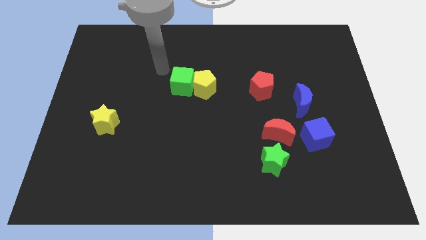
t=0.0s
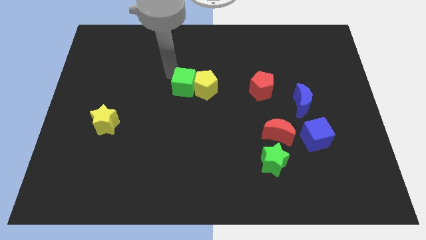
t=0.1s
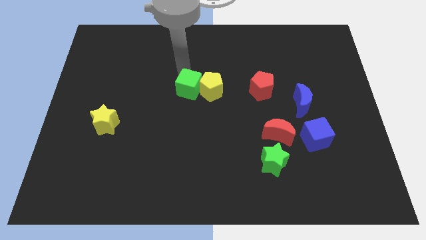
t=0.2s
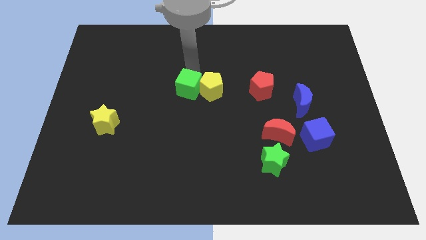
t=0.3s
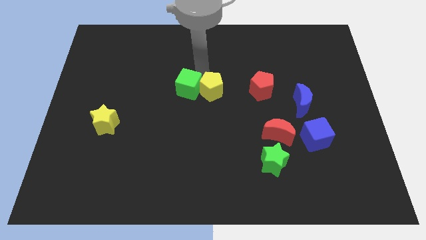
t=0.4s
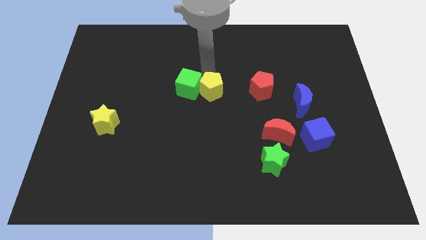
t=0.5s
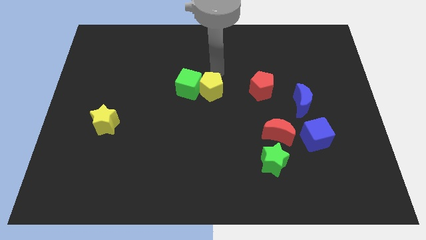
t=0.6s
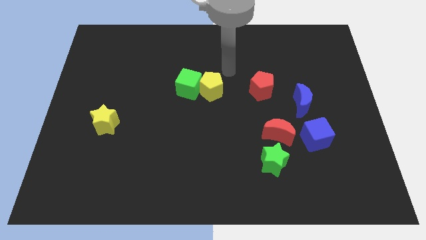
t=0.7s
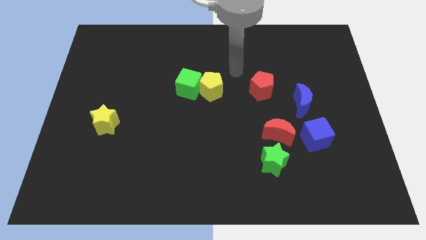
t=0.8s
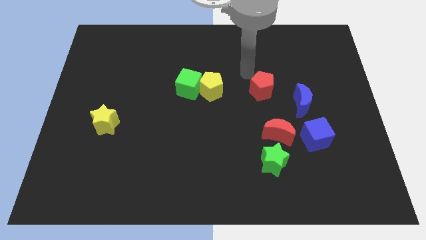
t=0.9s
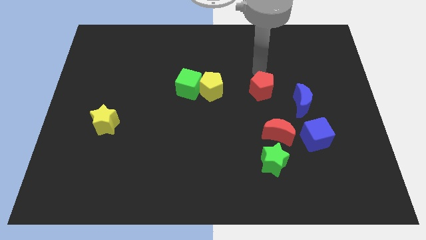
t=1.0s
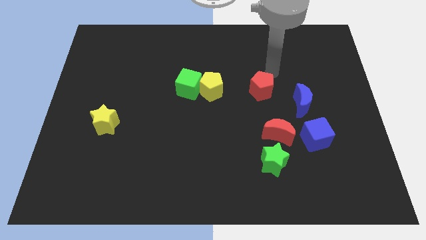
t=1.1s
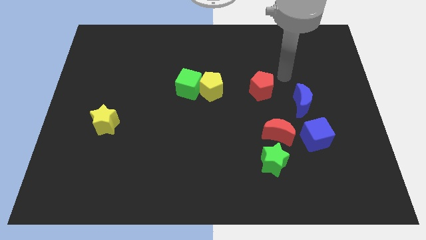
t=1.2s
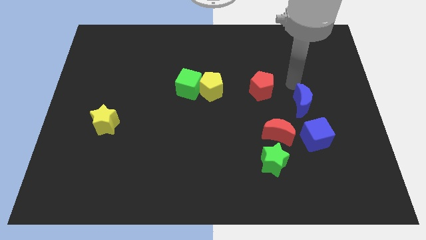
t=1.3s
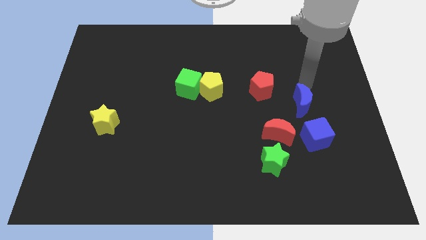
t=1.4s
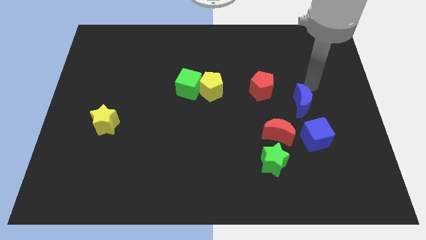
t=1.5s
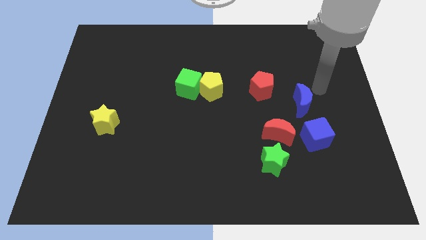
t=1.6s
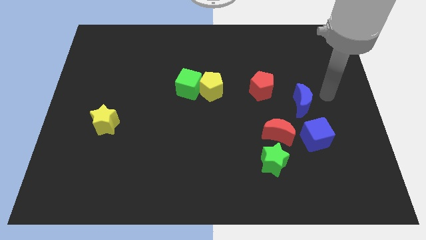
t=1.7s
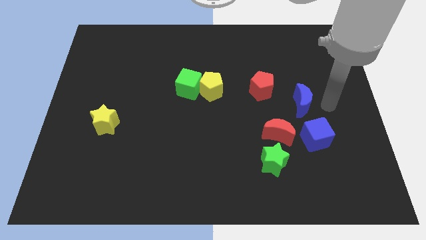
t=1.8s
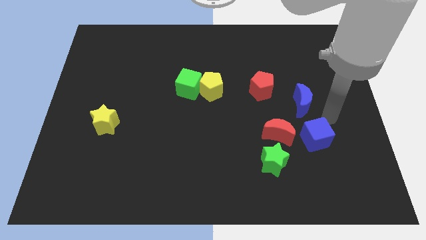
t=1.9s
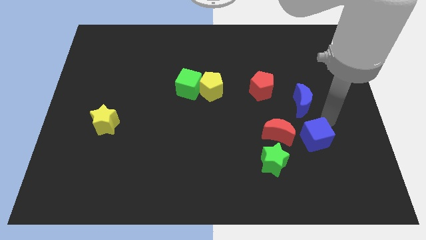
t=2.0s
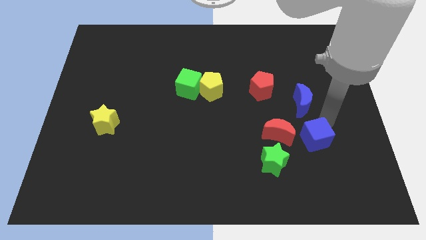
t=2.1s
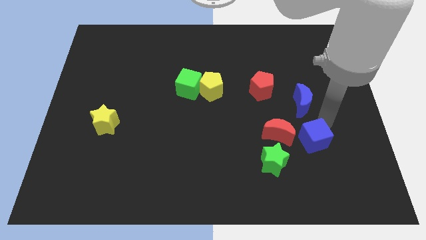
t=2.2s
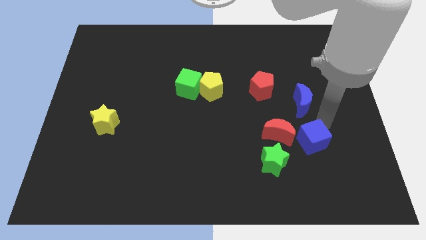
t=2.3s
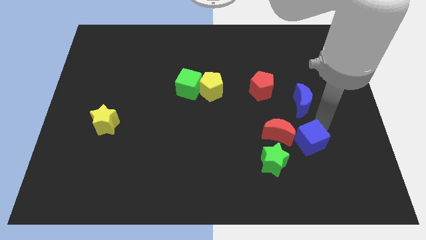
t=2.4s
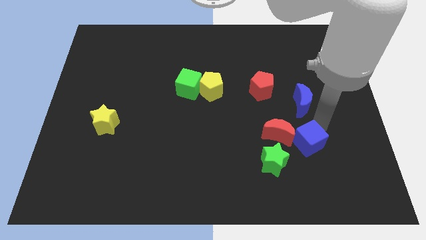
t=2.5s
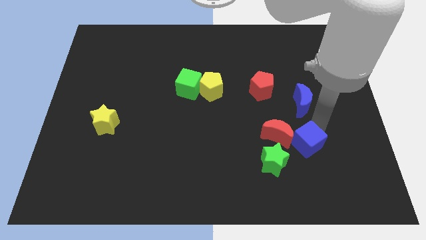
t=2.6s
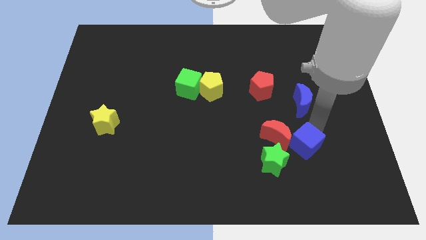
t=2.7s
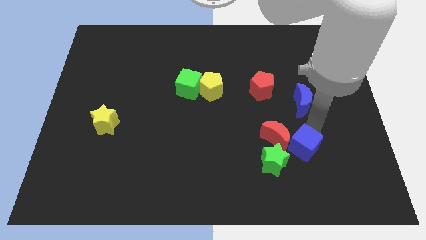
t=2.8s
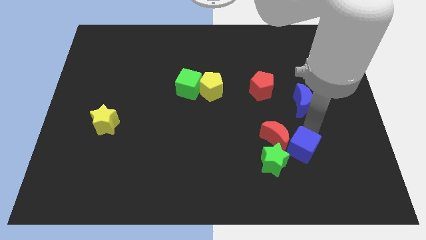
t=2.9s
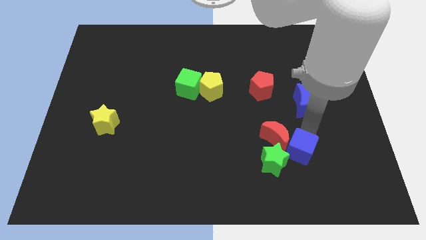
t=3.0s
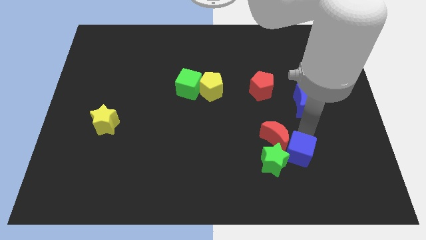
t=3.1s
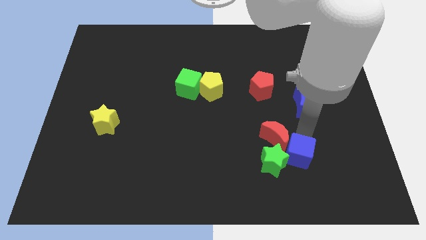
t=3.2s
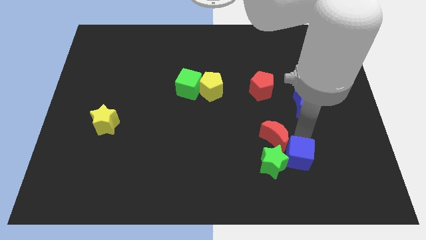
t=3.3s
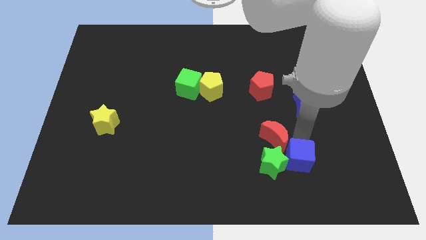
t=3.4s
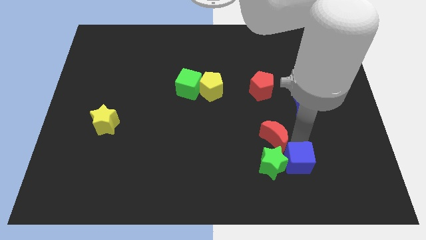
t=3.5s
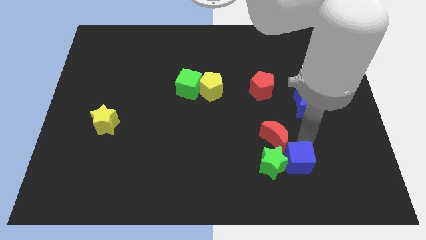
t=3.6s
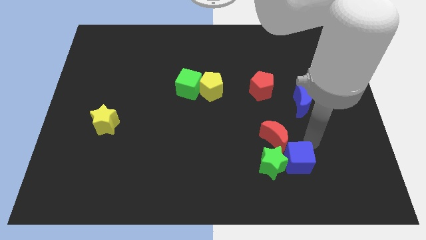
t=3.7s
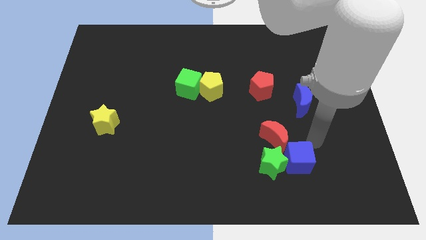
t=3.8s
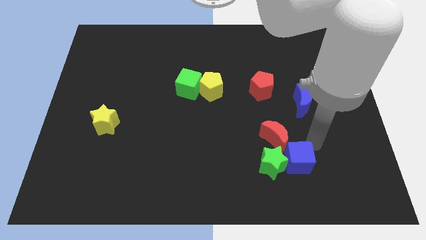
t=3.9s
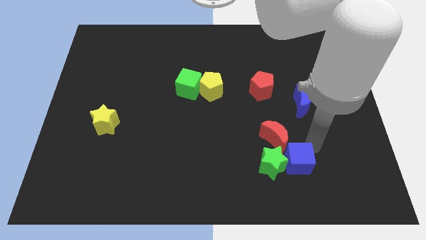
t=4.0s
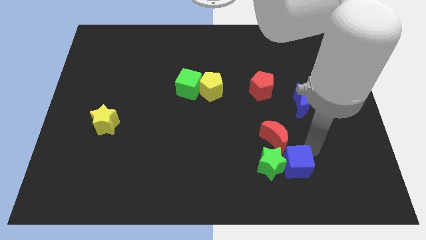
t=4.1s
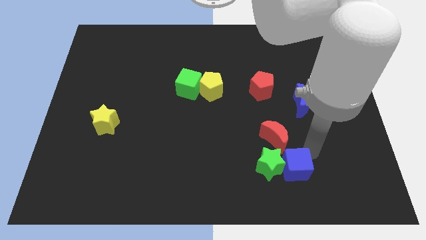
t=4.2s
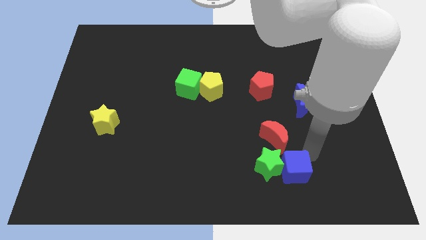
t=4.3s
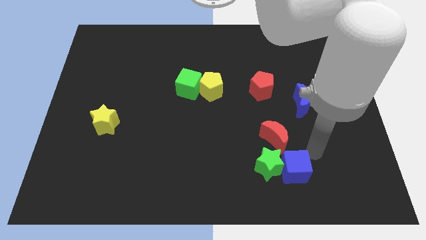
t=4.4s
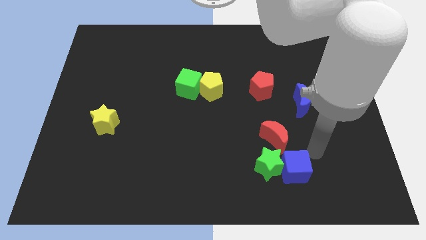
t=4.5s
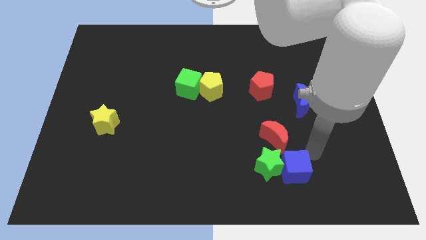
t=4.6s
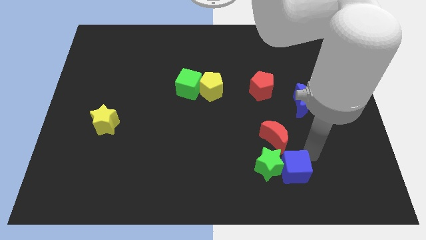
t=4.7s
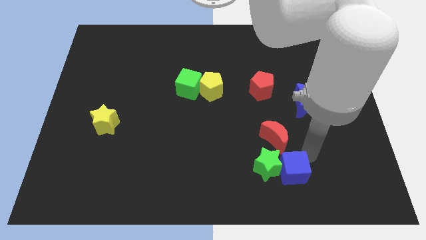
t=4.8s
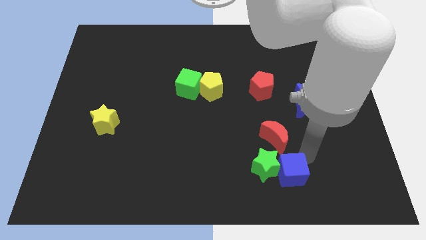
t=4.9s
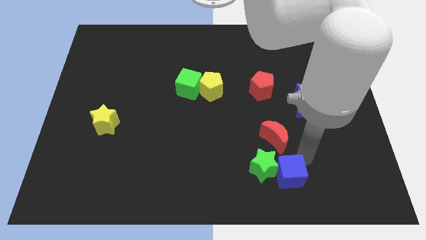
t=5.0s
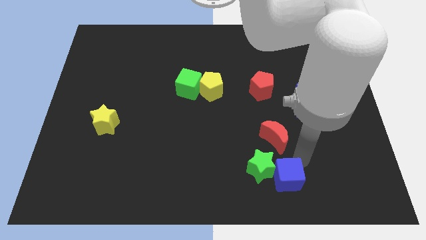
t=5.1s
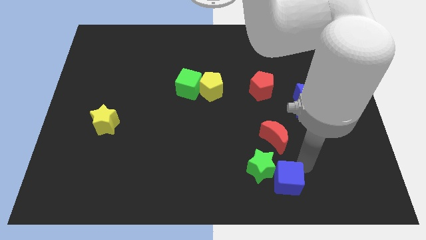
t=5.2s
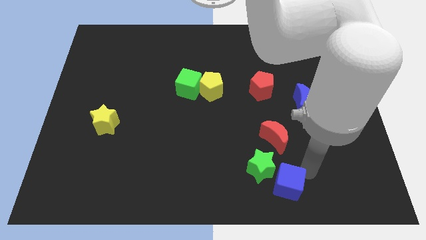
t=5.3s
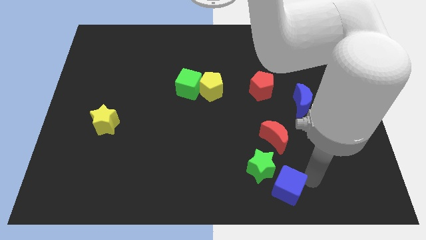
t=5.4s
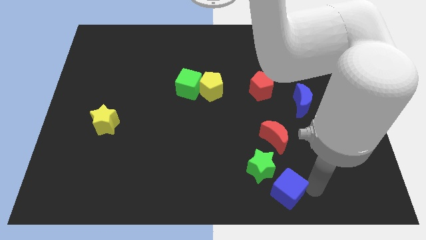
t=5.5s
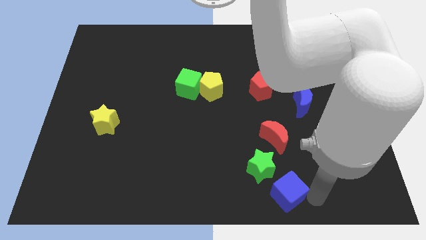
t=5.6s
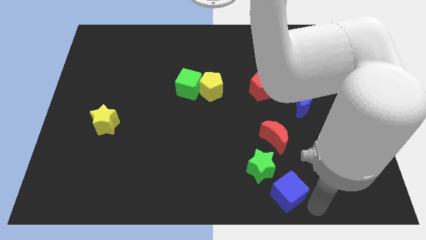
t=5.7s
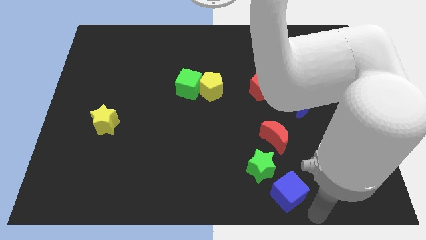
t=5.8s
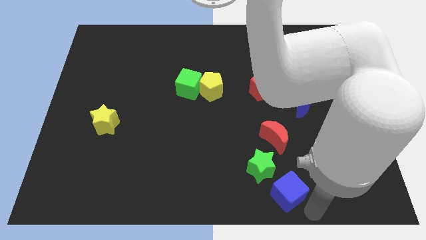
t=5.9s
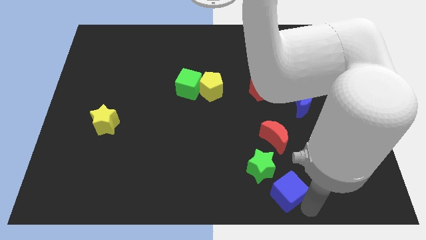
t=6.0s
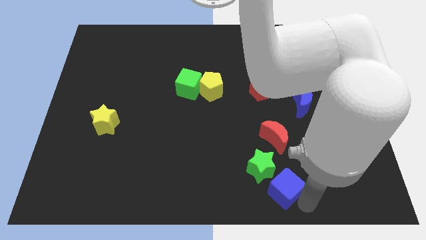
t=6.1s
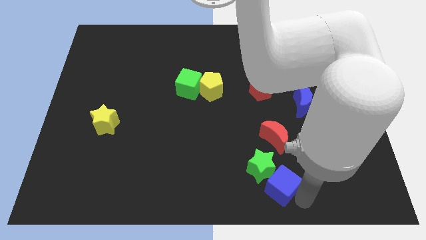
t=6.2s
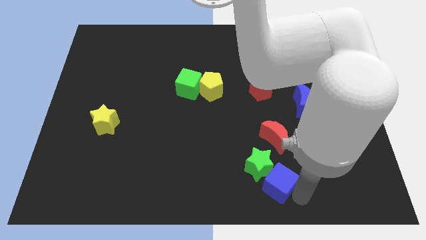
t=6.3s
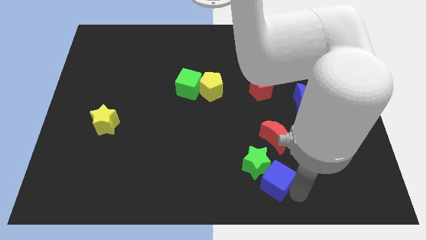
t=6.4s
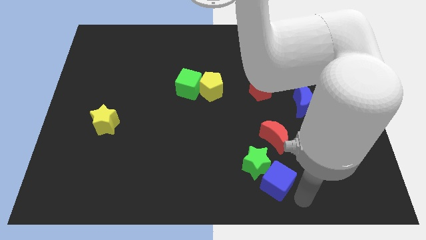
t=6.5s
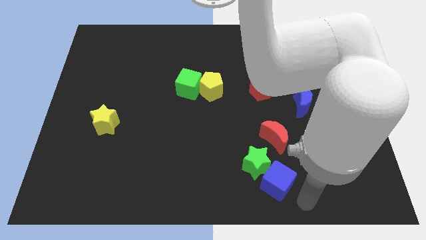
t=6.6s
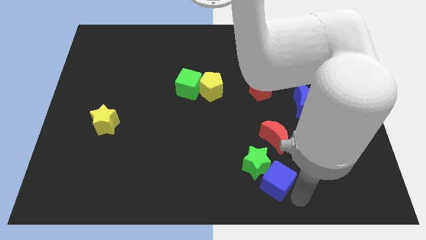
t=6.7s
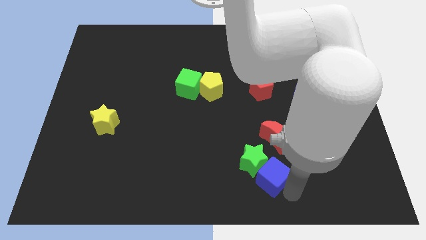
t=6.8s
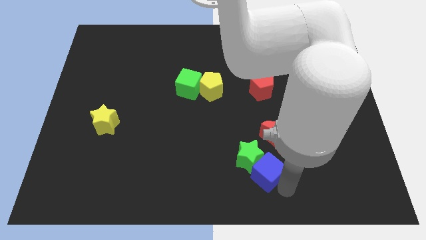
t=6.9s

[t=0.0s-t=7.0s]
slide the blue cube left somewhat

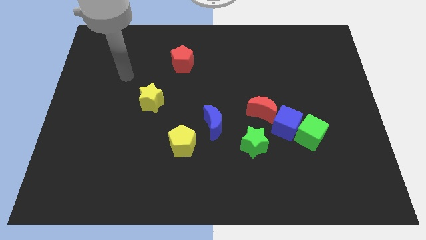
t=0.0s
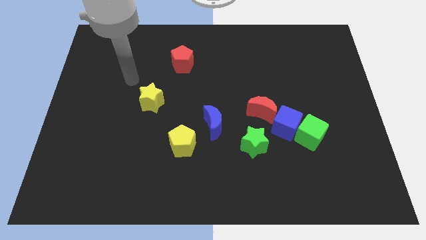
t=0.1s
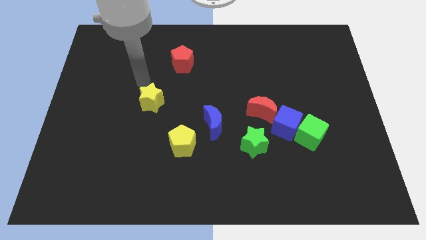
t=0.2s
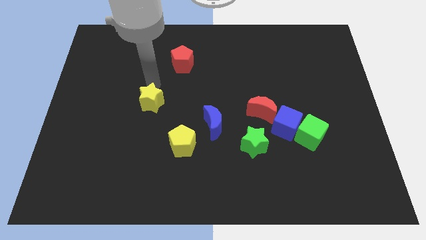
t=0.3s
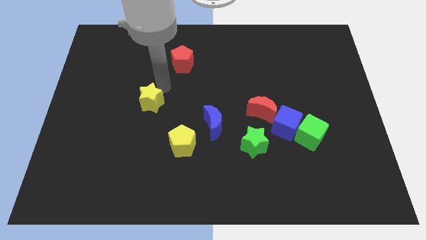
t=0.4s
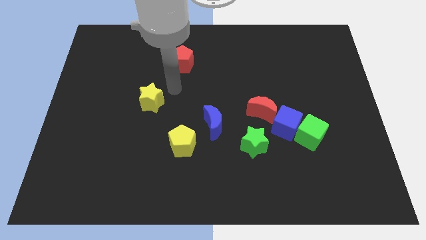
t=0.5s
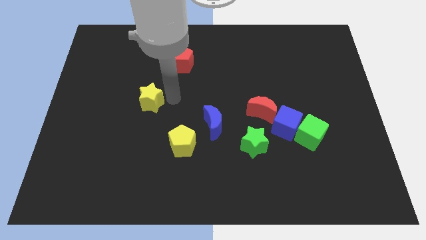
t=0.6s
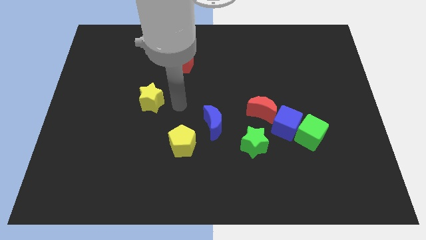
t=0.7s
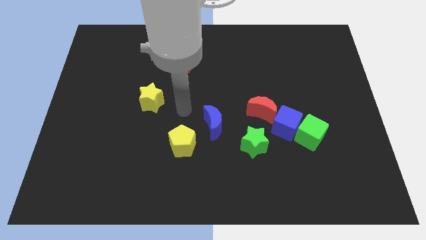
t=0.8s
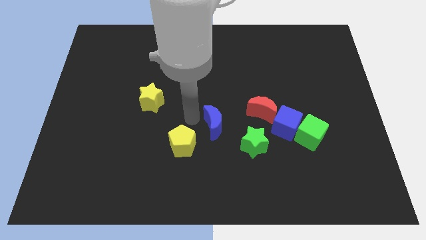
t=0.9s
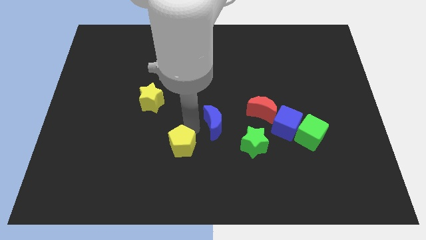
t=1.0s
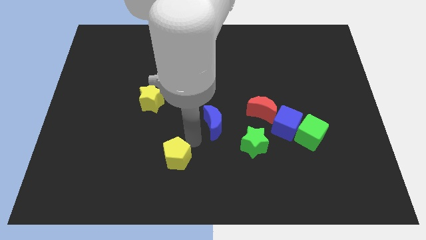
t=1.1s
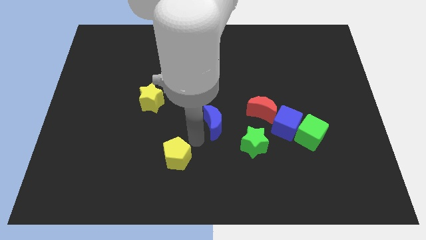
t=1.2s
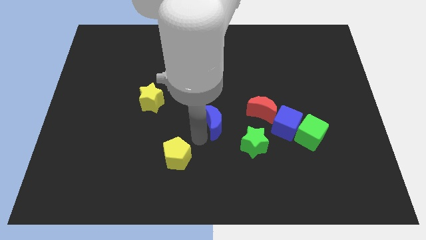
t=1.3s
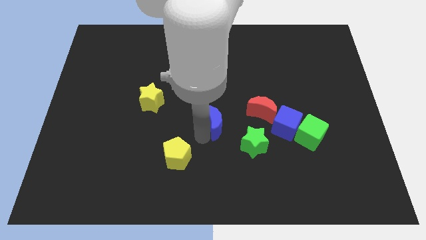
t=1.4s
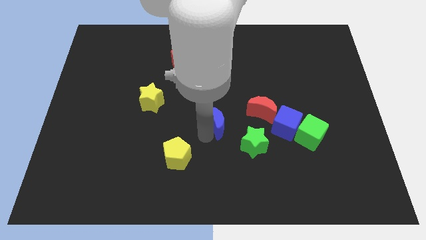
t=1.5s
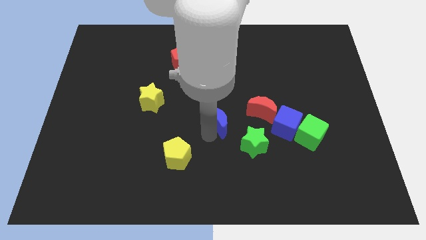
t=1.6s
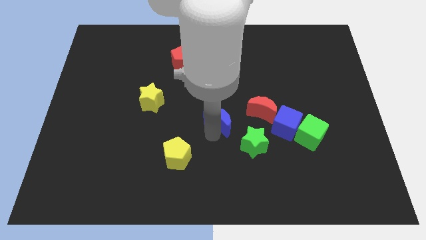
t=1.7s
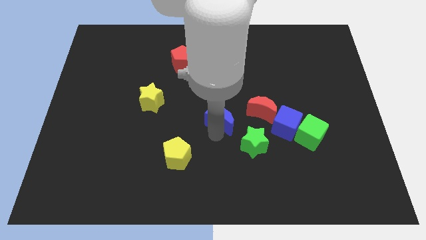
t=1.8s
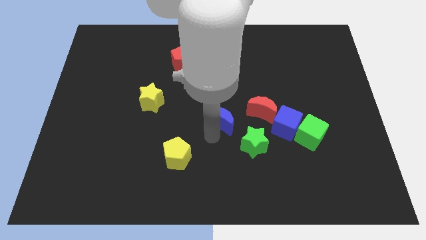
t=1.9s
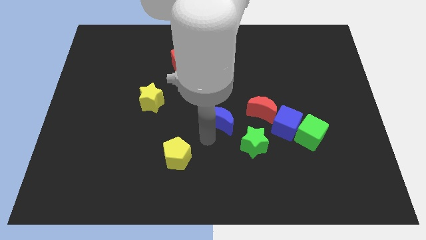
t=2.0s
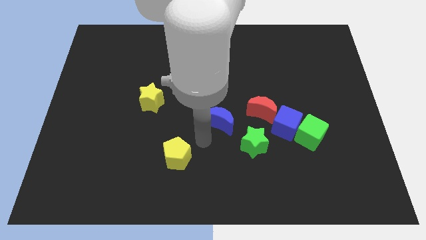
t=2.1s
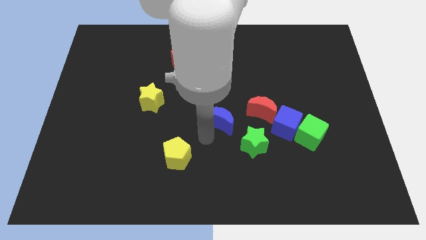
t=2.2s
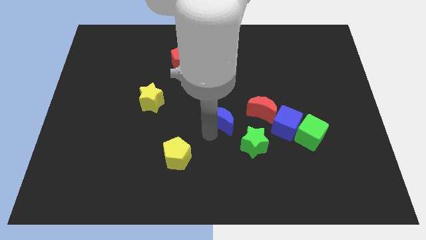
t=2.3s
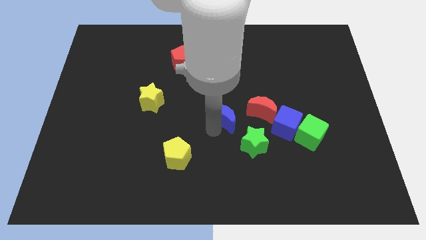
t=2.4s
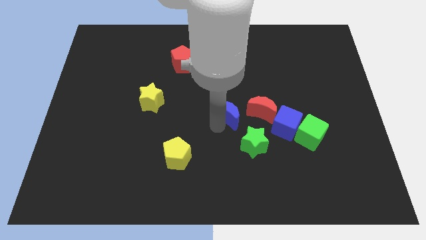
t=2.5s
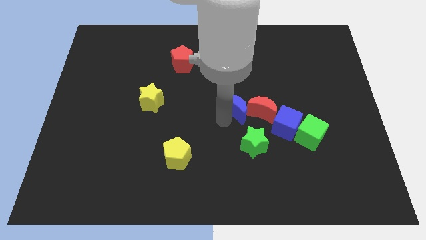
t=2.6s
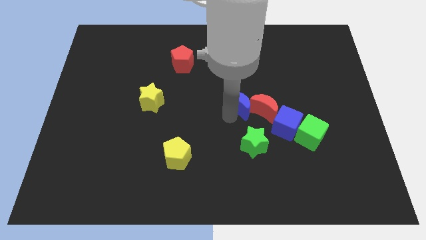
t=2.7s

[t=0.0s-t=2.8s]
slightly push the blue moon up and right
